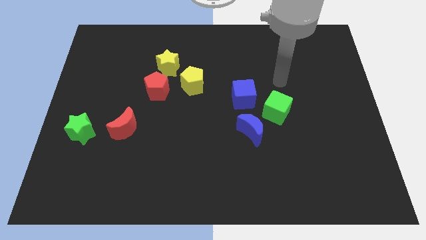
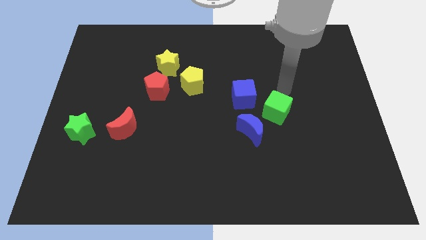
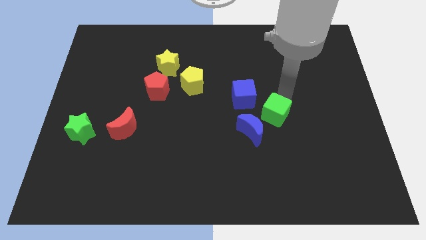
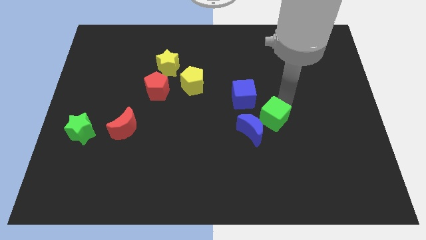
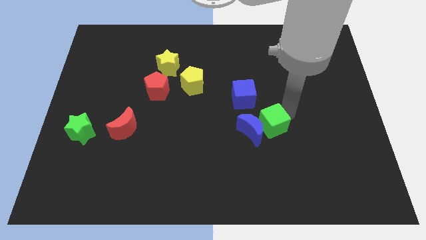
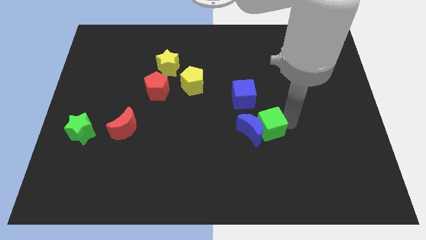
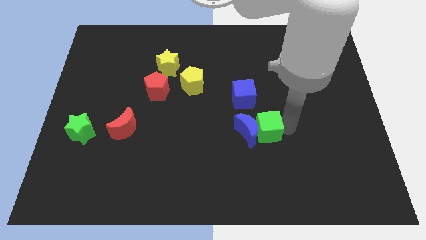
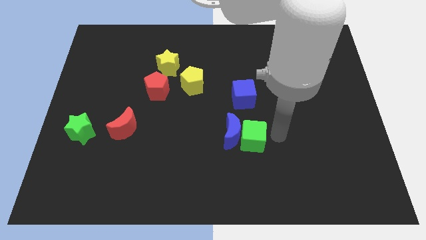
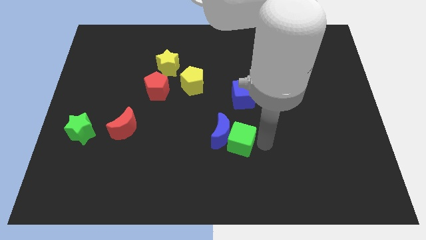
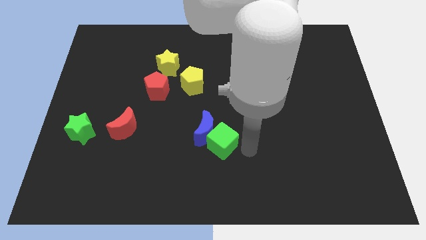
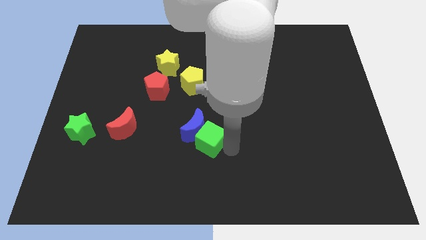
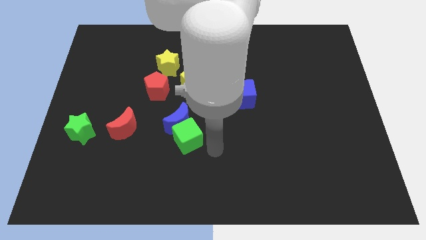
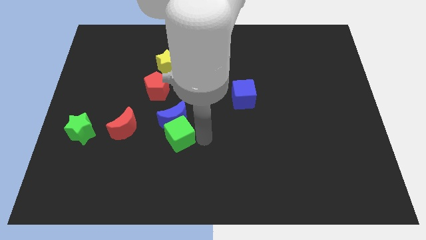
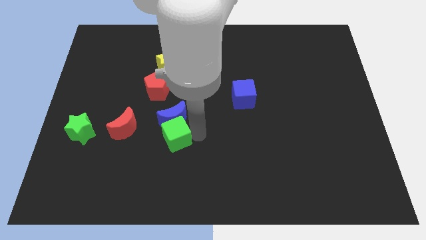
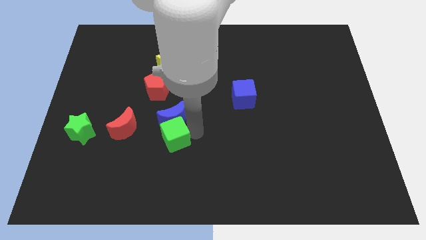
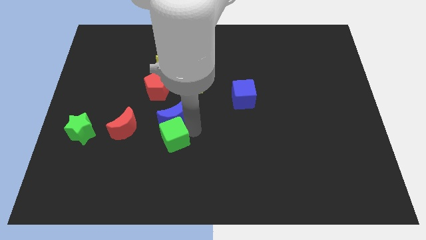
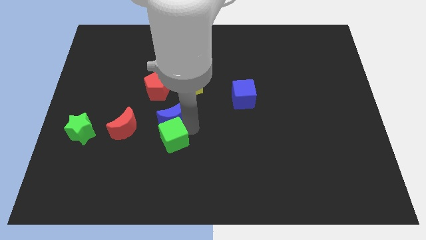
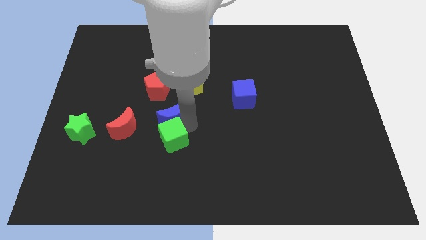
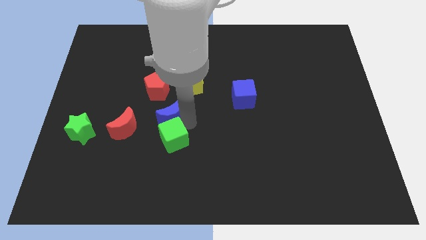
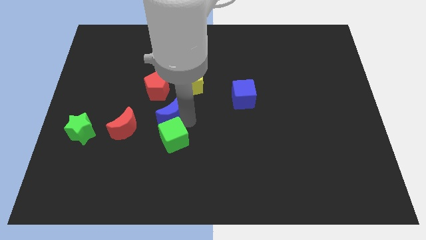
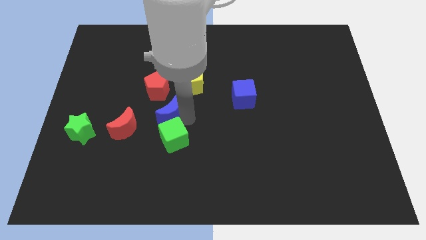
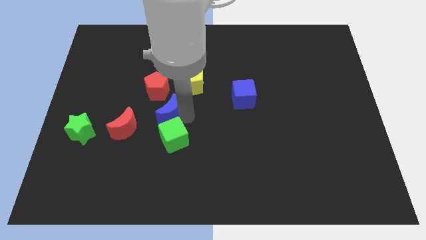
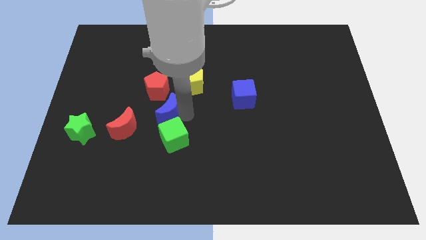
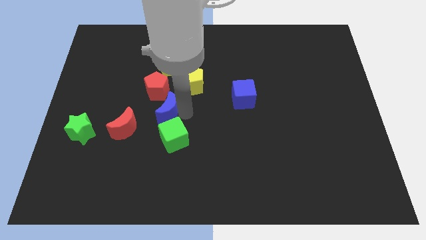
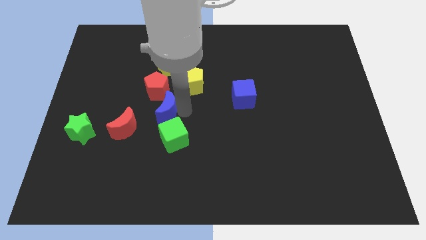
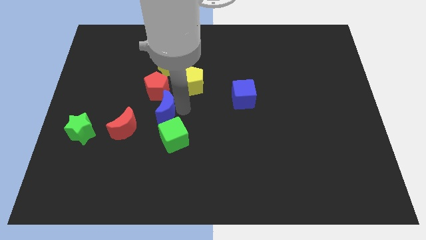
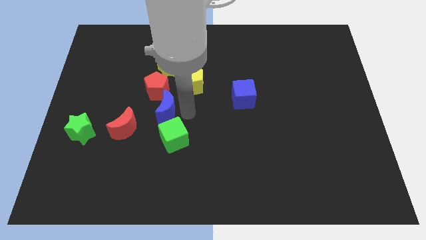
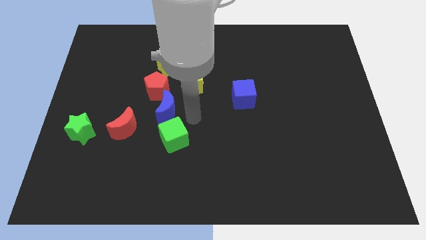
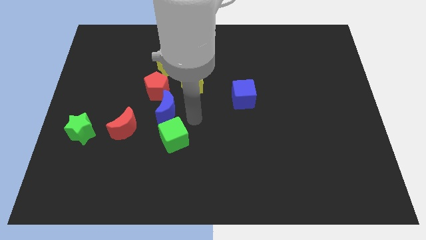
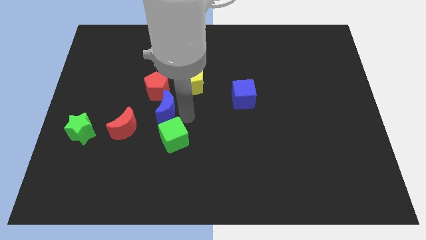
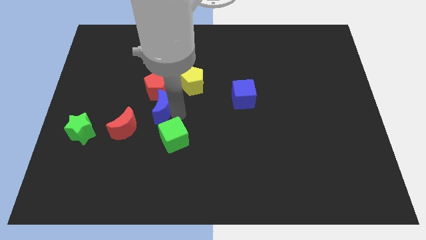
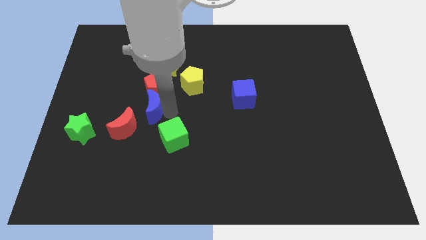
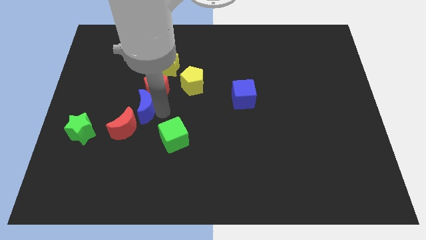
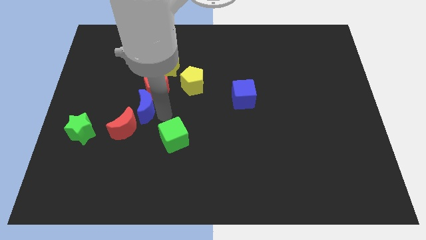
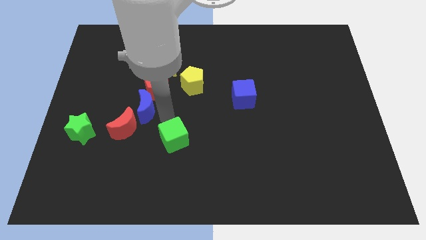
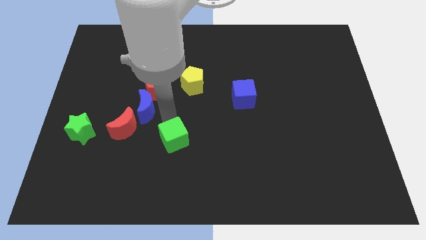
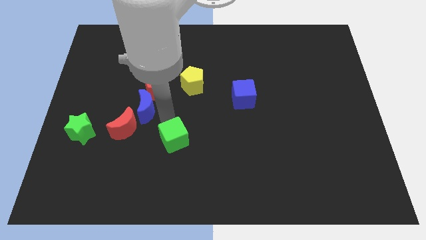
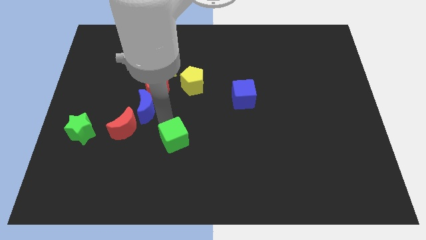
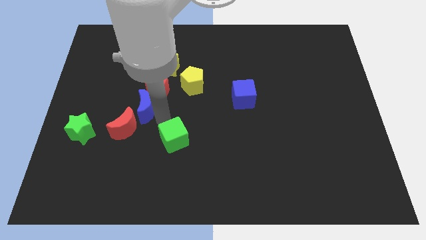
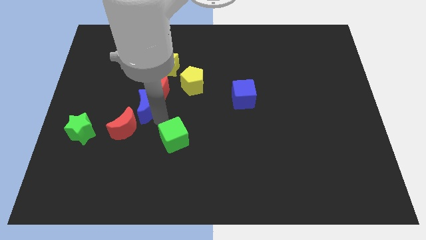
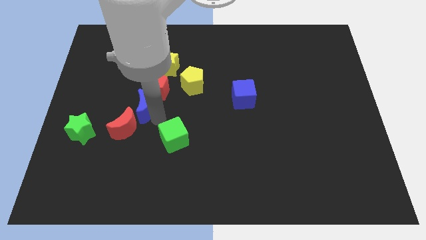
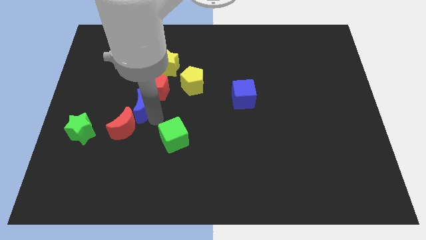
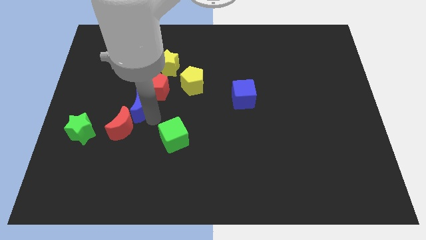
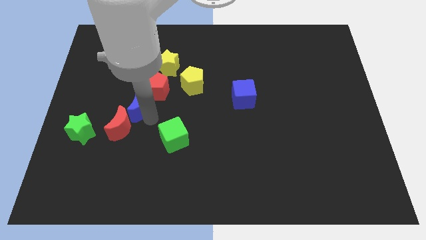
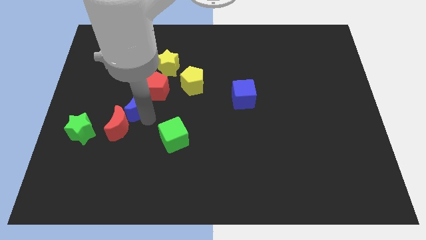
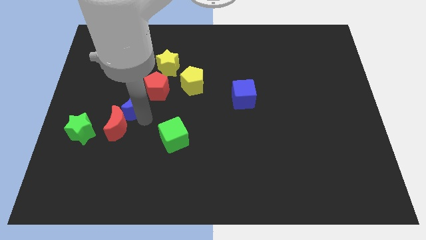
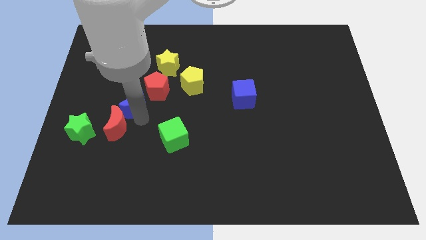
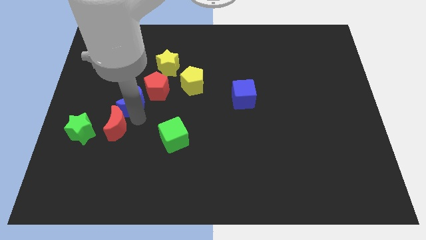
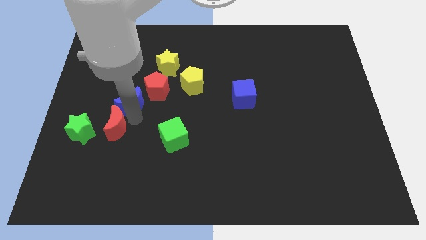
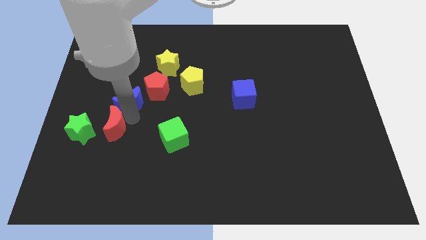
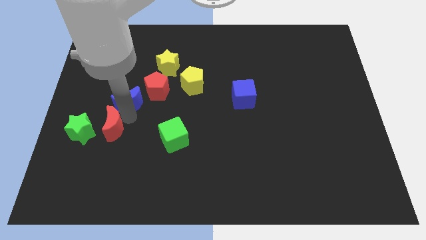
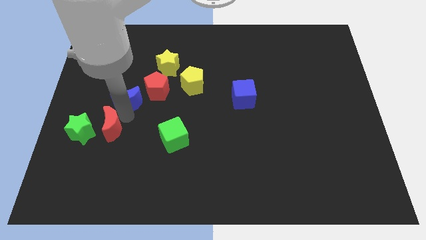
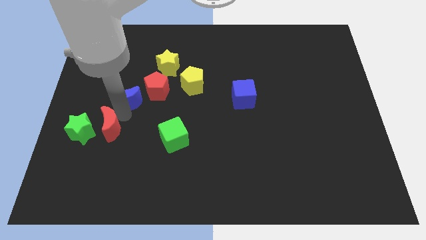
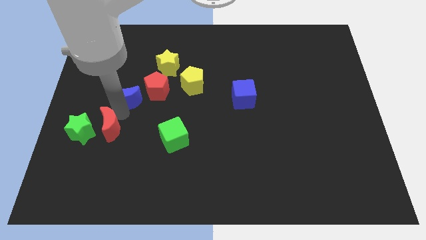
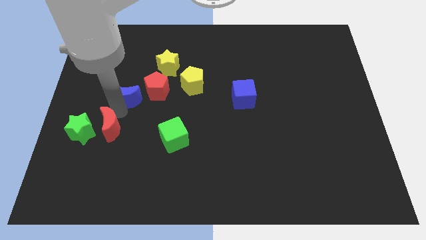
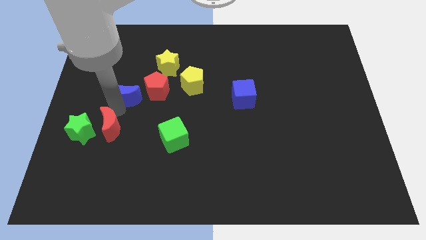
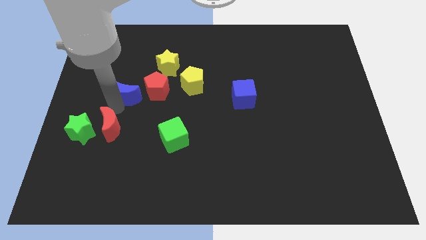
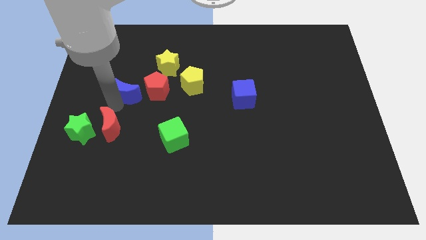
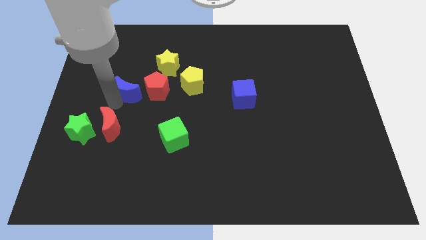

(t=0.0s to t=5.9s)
slide the blue moon diagonally down and to the left of the yellow star

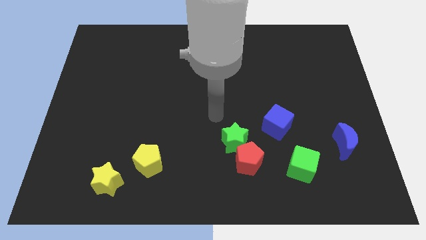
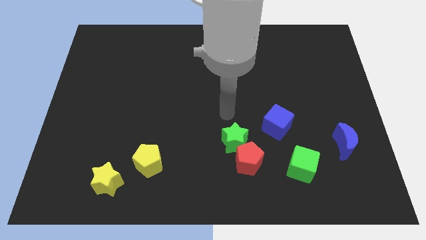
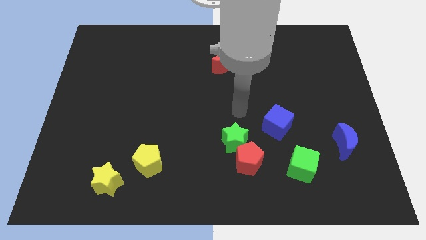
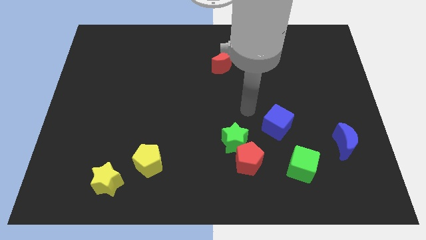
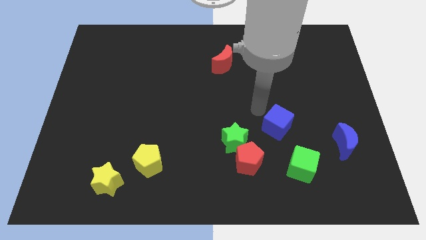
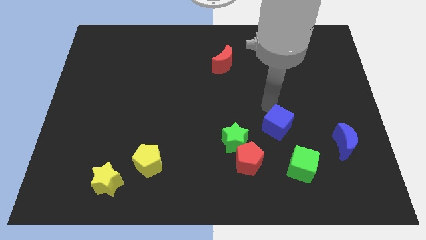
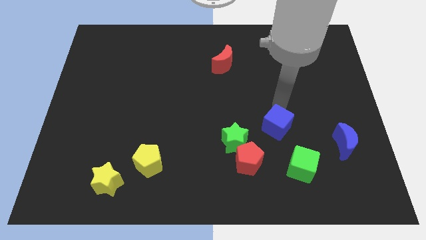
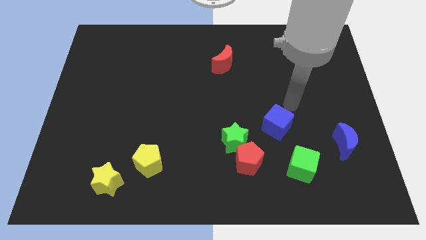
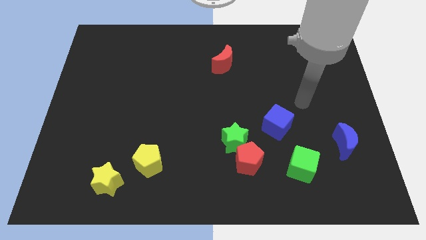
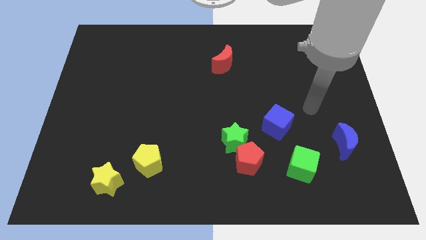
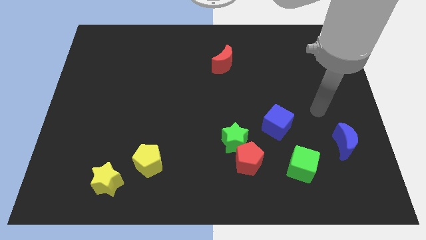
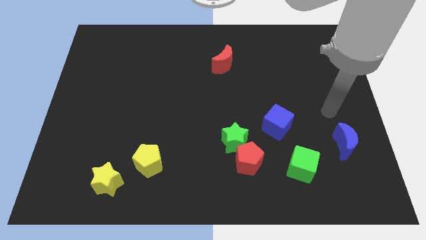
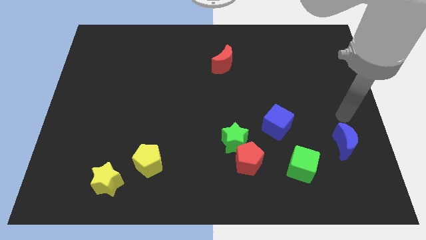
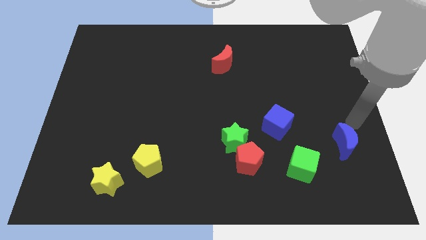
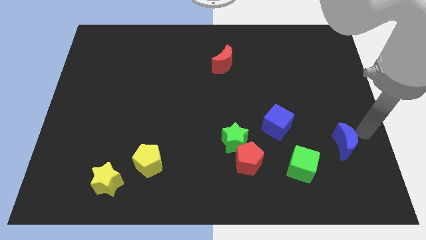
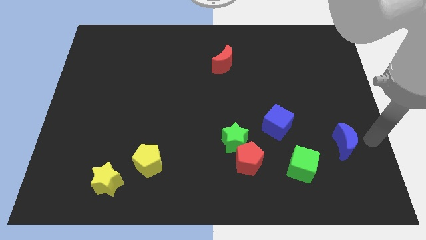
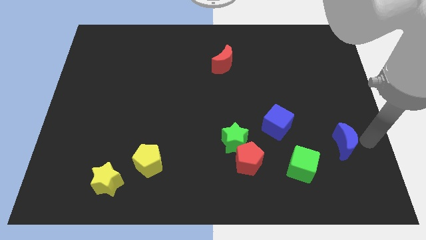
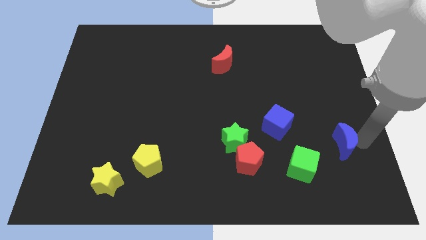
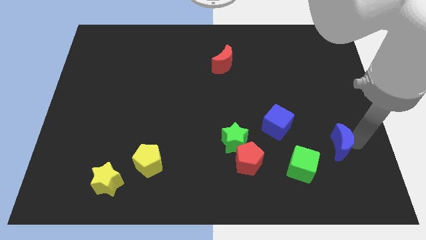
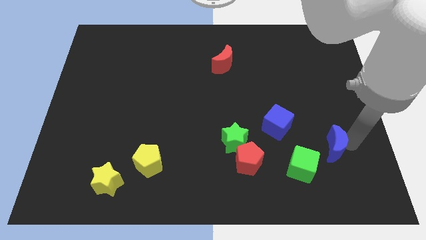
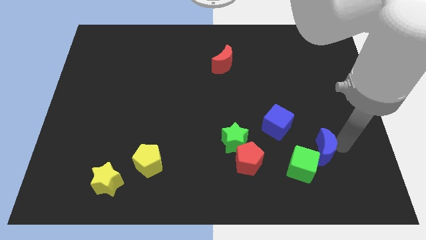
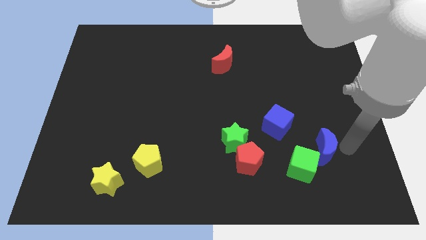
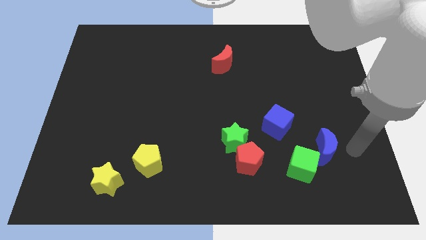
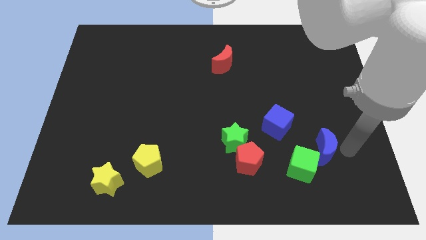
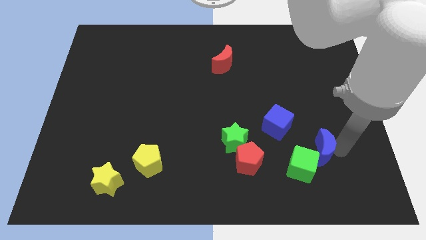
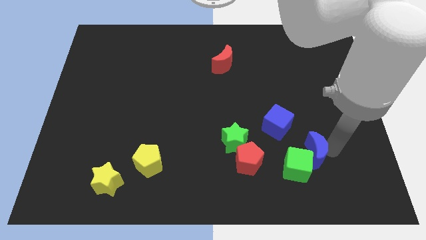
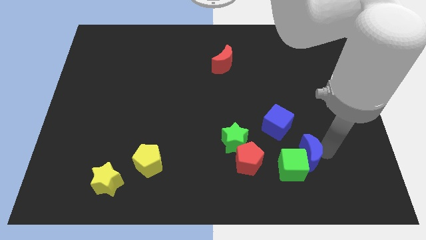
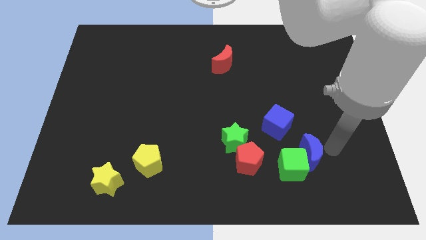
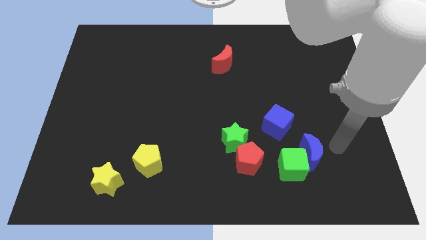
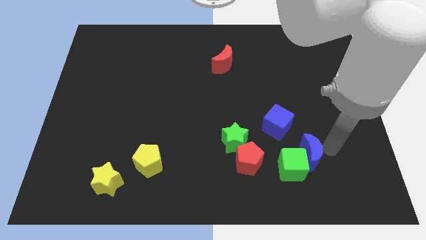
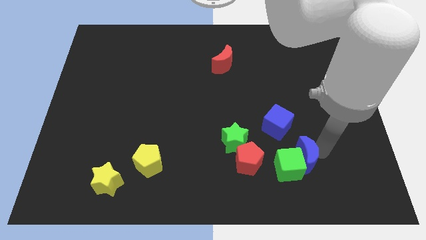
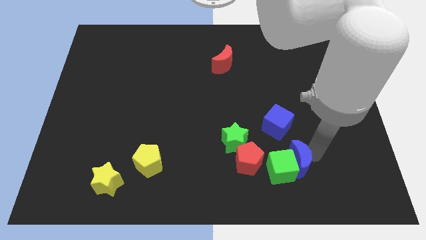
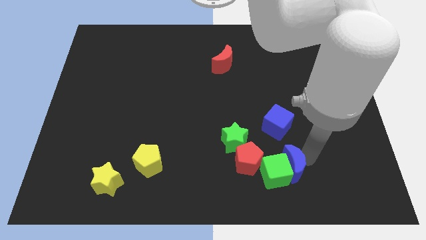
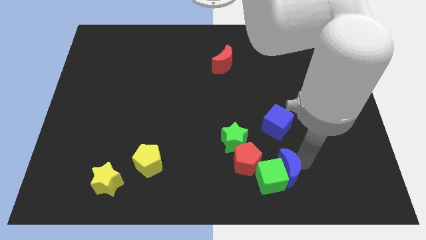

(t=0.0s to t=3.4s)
push the blue moon to the bottom right of the red pentagon
